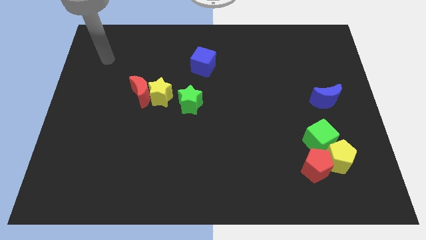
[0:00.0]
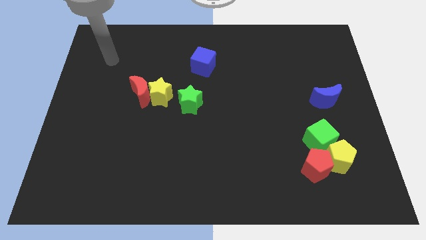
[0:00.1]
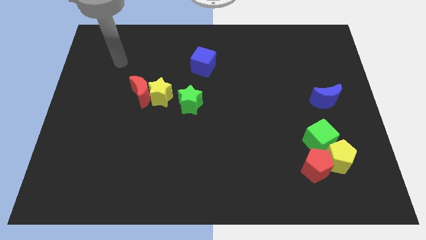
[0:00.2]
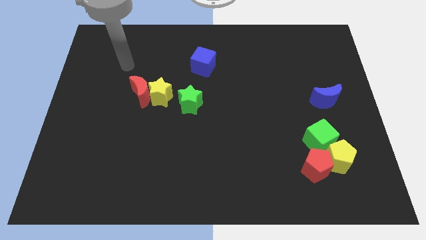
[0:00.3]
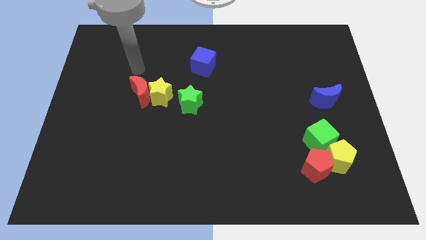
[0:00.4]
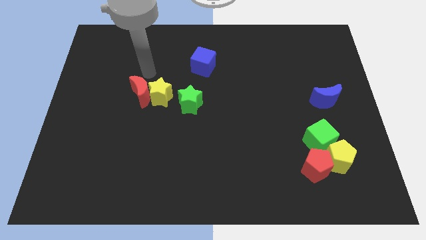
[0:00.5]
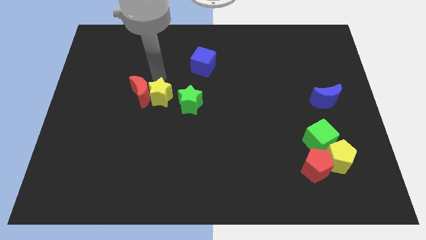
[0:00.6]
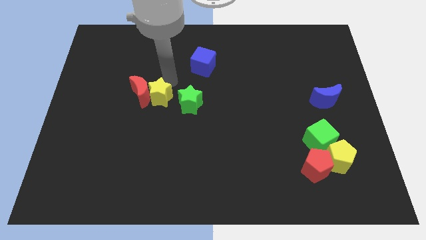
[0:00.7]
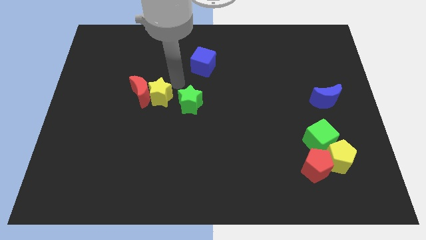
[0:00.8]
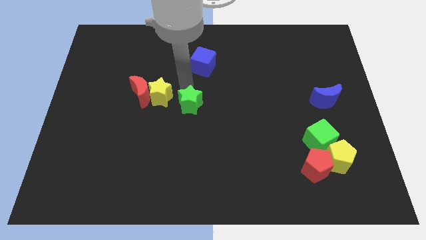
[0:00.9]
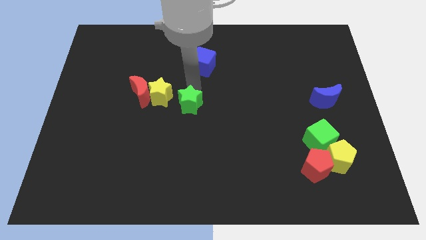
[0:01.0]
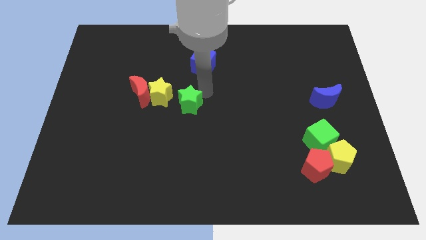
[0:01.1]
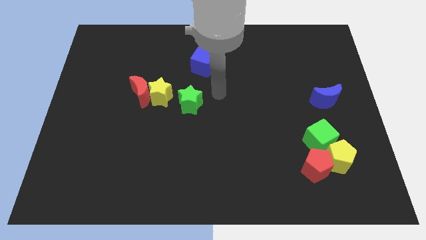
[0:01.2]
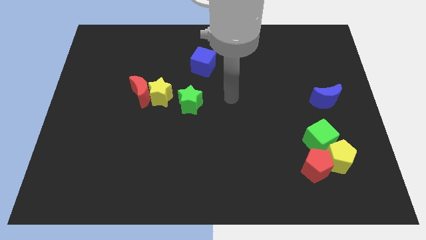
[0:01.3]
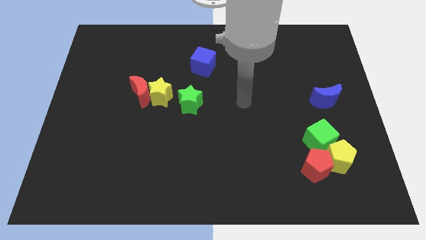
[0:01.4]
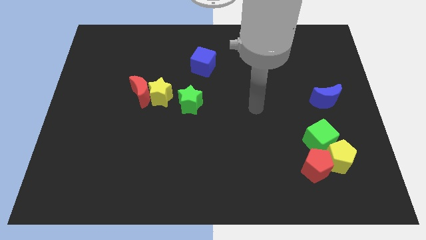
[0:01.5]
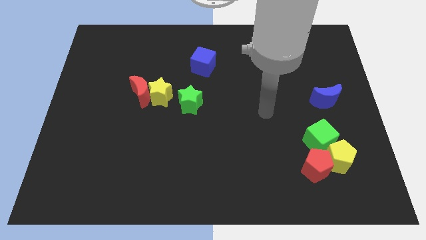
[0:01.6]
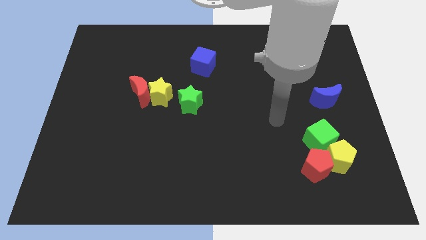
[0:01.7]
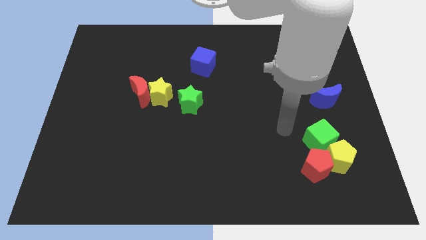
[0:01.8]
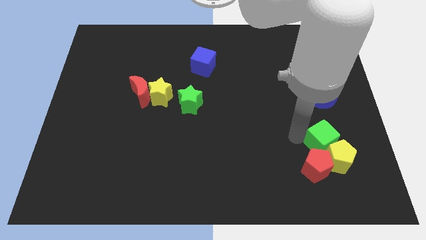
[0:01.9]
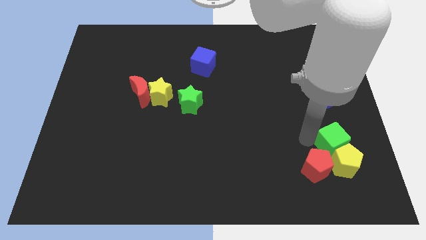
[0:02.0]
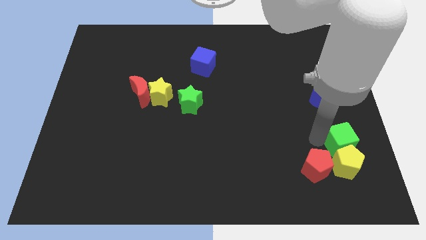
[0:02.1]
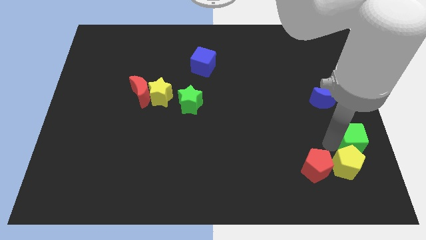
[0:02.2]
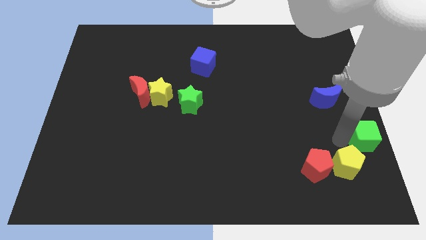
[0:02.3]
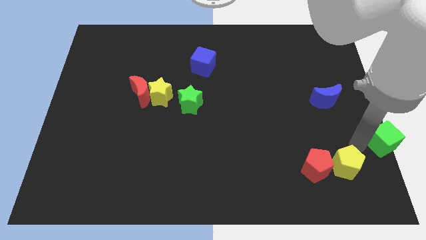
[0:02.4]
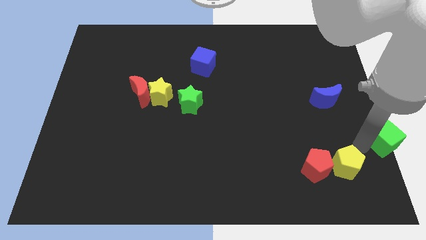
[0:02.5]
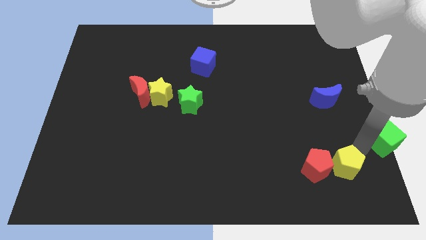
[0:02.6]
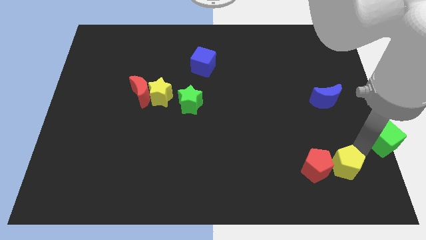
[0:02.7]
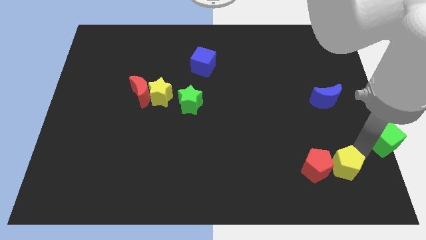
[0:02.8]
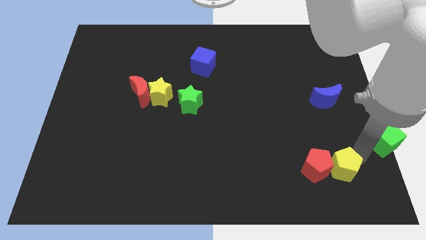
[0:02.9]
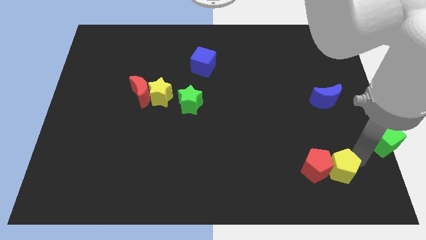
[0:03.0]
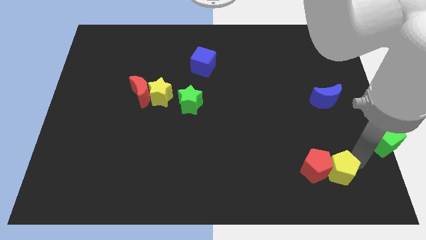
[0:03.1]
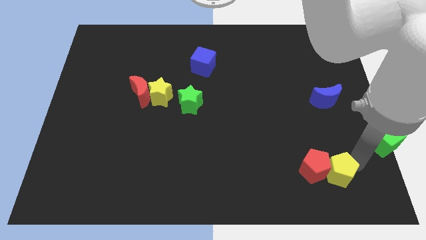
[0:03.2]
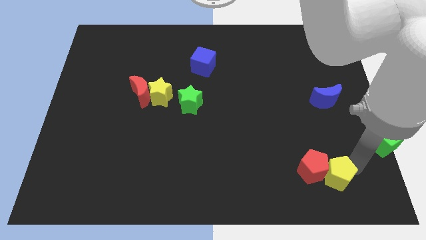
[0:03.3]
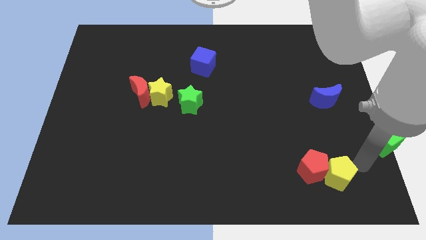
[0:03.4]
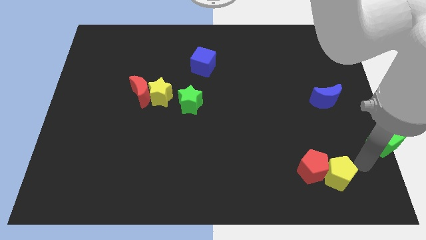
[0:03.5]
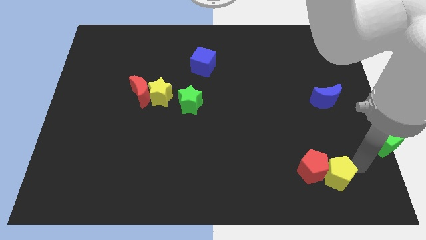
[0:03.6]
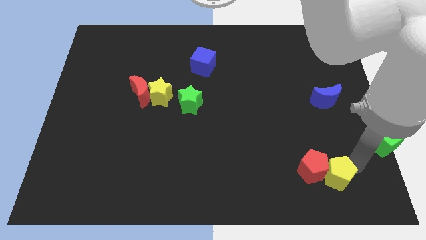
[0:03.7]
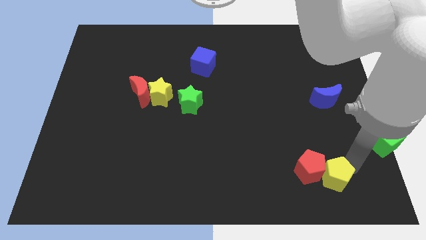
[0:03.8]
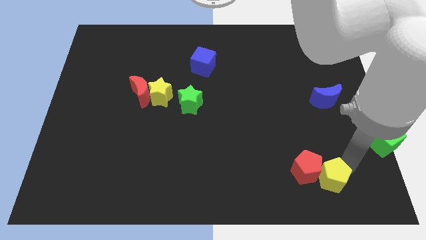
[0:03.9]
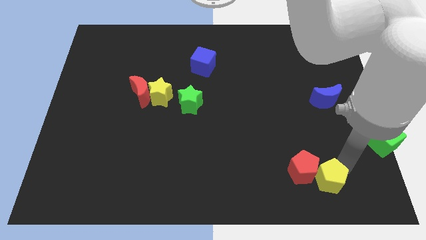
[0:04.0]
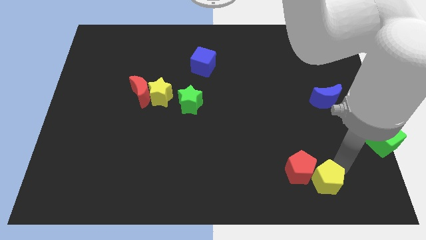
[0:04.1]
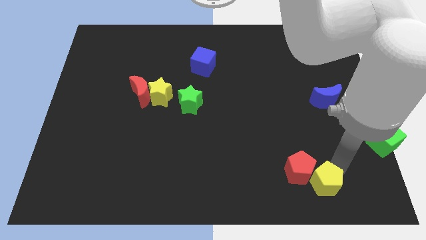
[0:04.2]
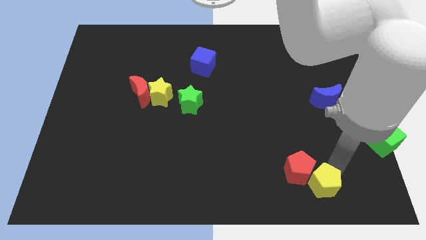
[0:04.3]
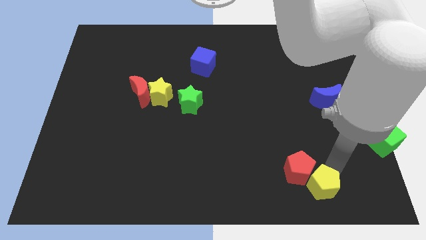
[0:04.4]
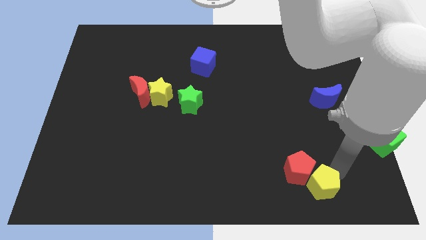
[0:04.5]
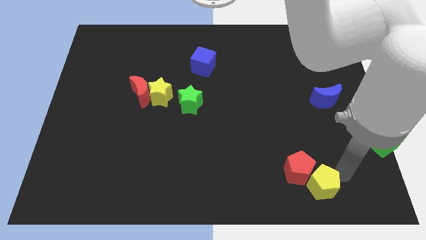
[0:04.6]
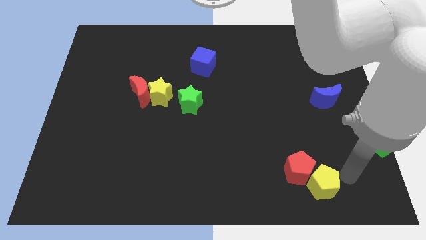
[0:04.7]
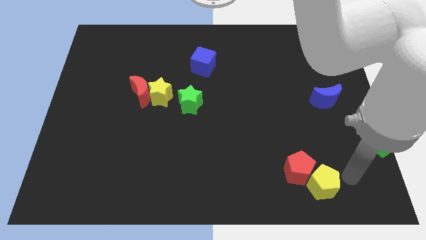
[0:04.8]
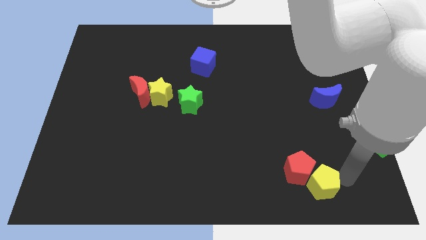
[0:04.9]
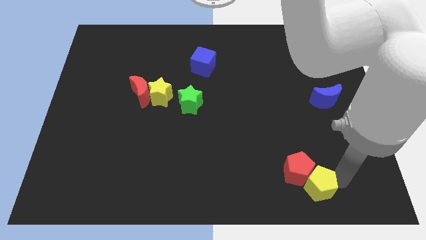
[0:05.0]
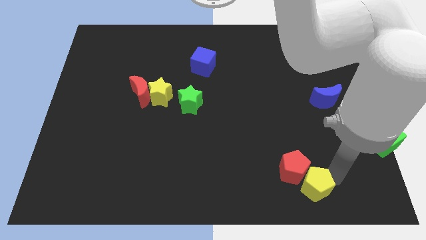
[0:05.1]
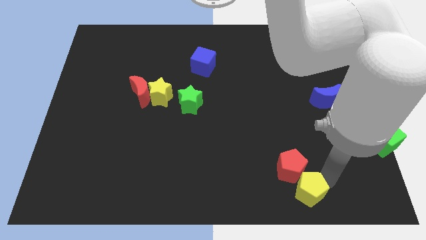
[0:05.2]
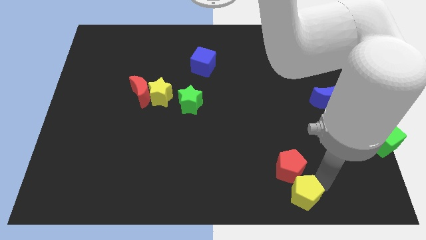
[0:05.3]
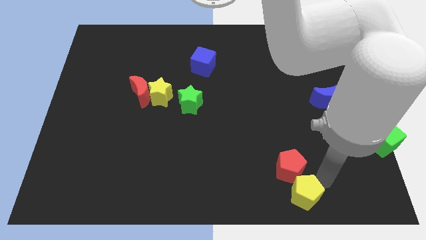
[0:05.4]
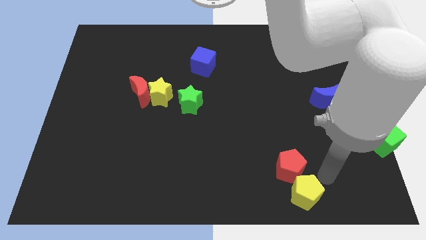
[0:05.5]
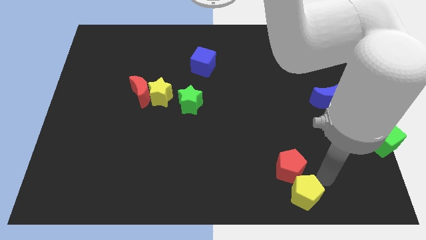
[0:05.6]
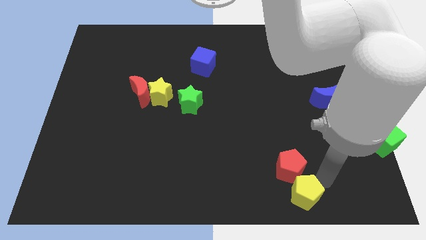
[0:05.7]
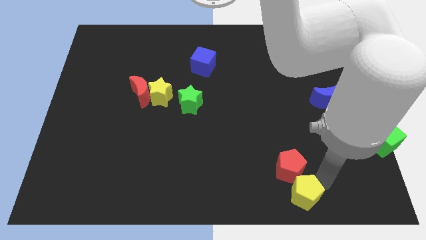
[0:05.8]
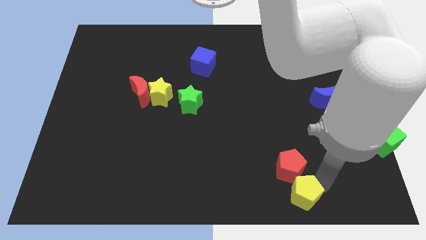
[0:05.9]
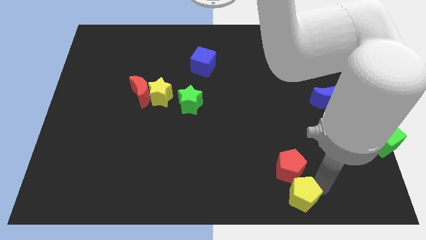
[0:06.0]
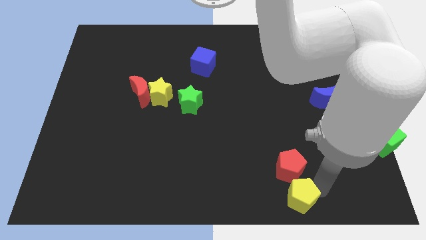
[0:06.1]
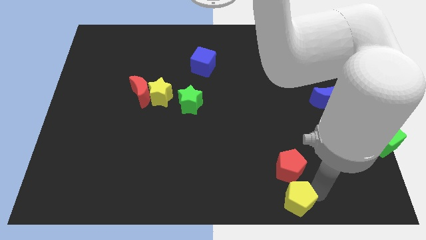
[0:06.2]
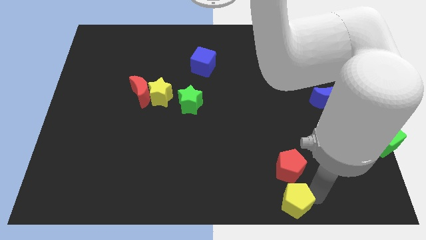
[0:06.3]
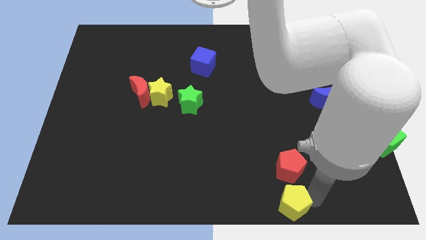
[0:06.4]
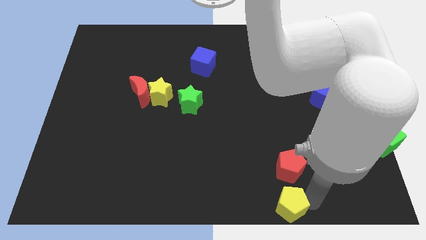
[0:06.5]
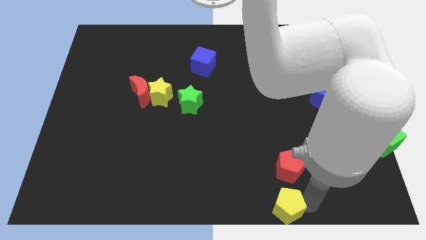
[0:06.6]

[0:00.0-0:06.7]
move the yellow pentagon to the bottom side

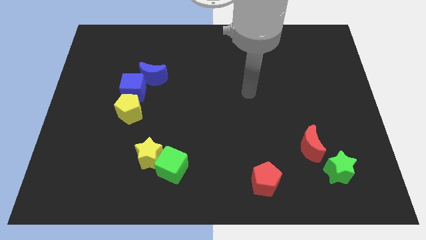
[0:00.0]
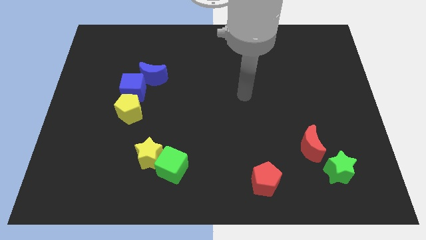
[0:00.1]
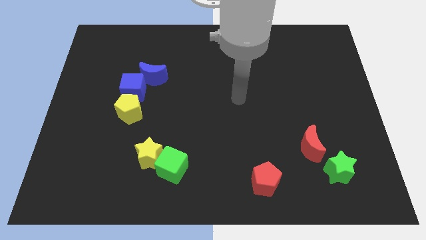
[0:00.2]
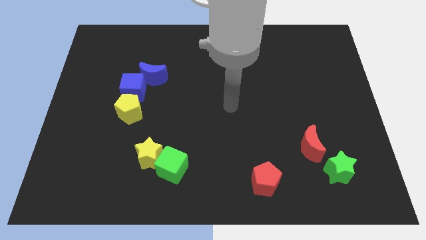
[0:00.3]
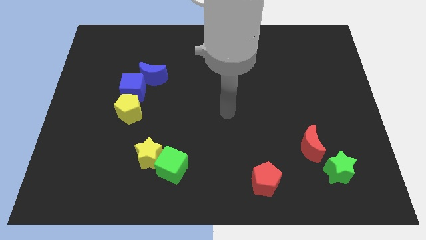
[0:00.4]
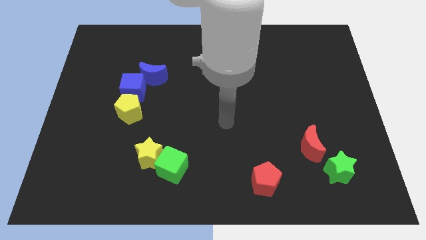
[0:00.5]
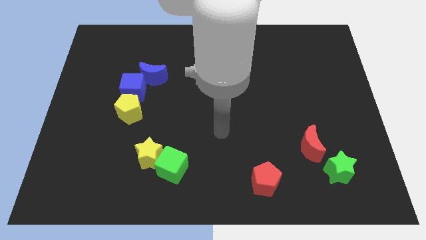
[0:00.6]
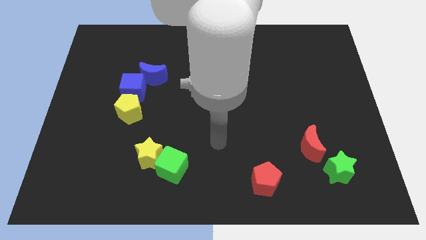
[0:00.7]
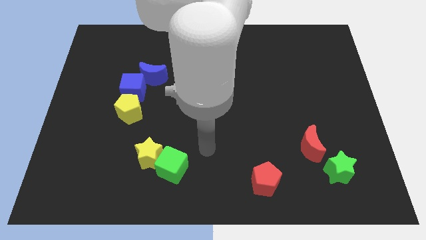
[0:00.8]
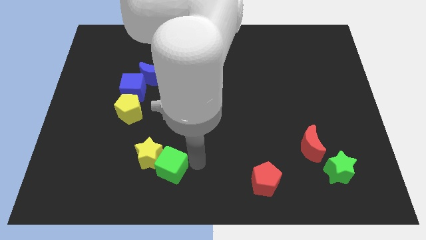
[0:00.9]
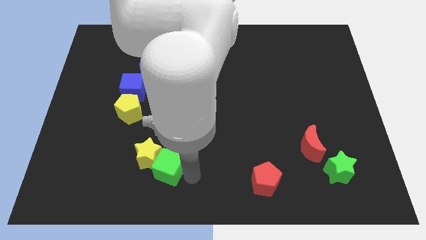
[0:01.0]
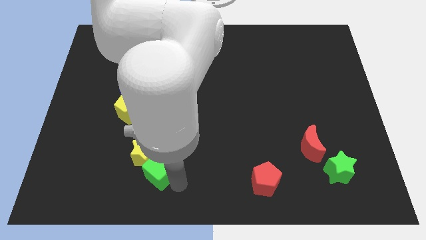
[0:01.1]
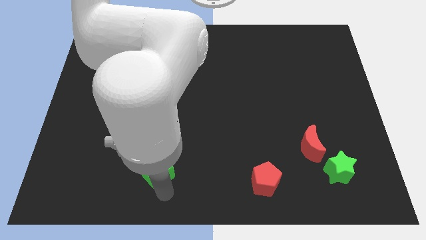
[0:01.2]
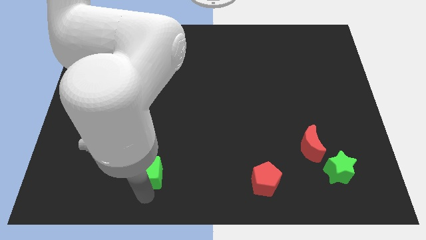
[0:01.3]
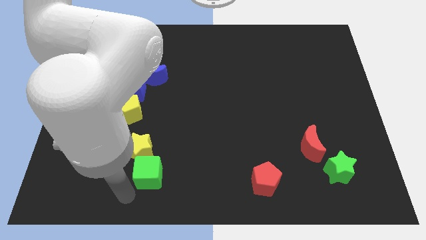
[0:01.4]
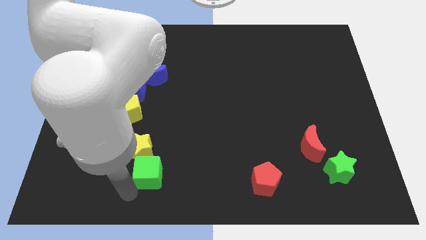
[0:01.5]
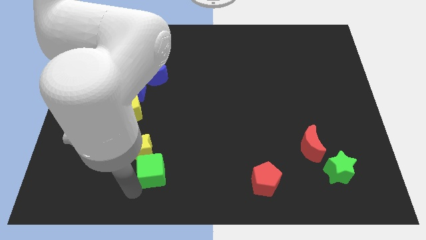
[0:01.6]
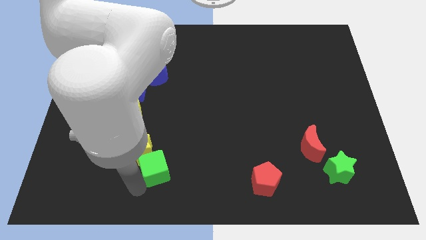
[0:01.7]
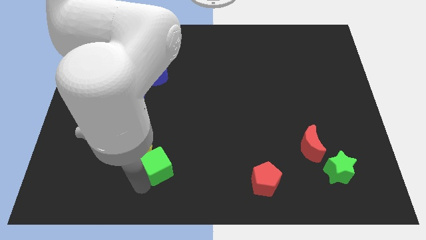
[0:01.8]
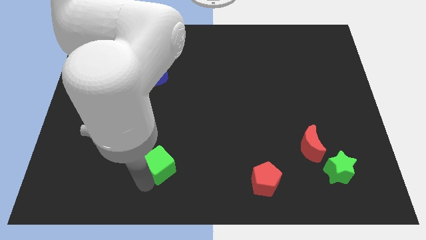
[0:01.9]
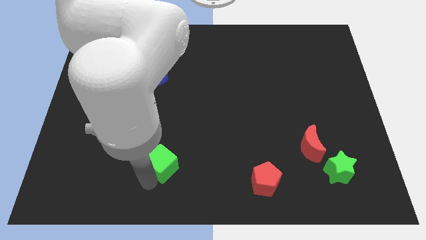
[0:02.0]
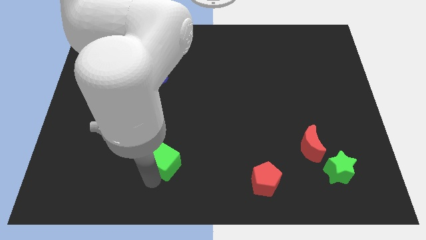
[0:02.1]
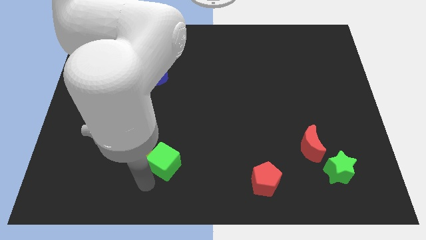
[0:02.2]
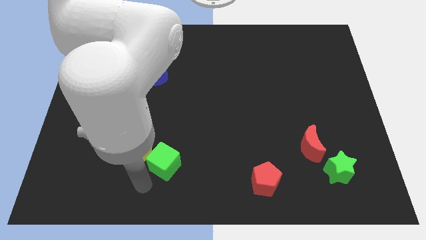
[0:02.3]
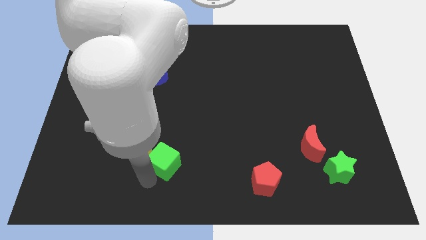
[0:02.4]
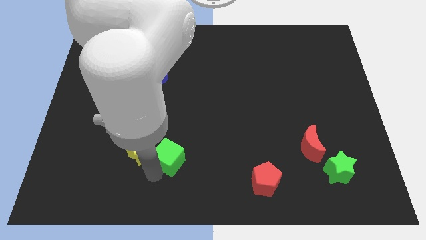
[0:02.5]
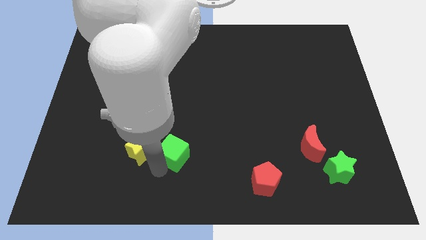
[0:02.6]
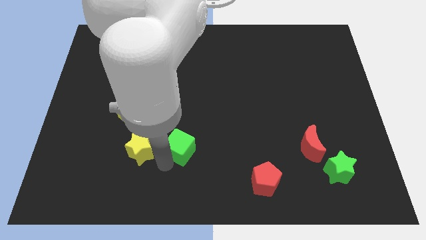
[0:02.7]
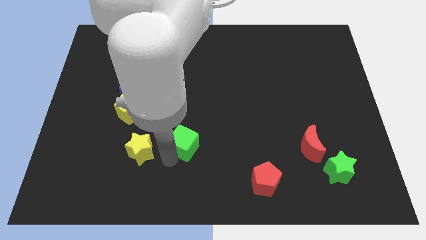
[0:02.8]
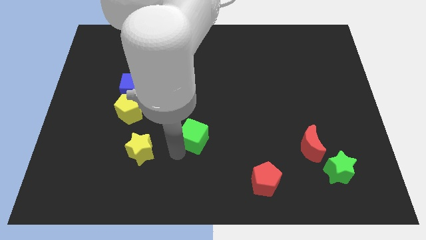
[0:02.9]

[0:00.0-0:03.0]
slide the green cube to the center
